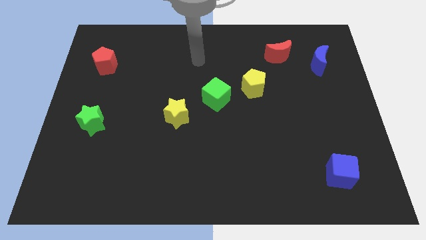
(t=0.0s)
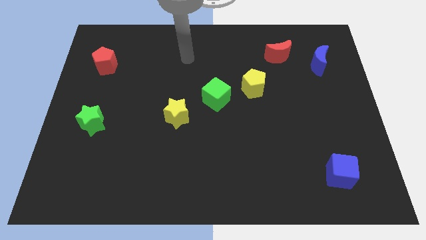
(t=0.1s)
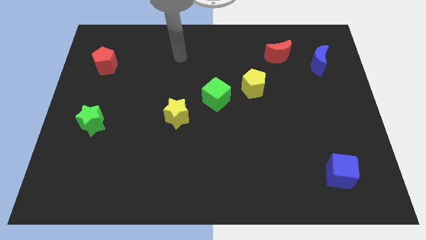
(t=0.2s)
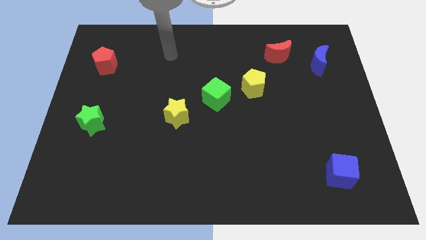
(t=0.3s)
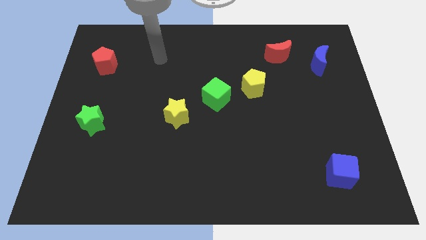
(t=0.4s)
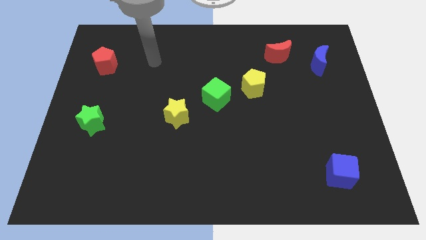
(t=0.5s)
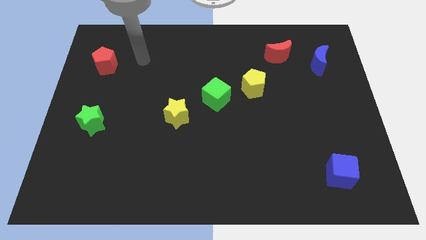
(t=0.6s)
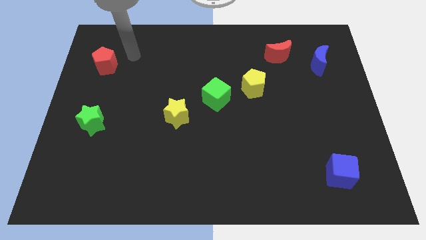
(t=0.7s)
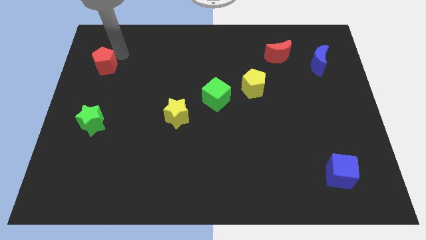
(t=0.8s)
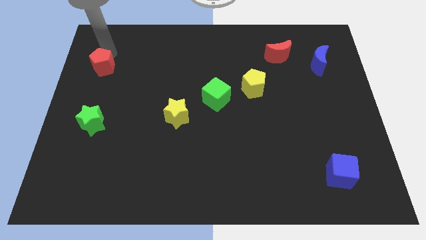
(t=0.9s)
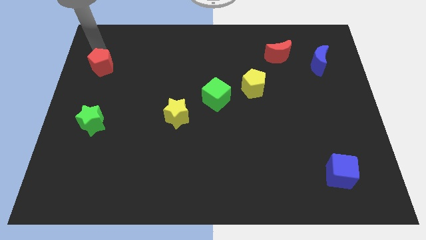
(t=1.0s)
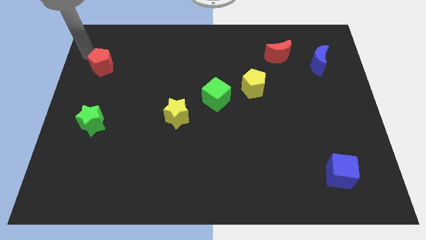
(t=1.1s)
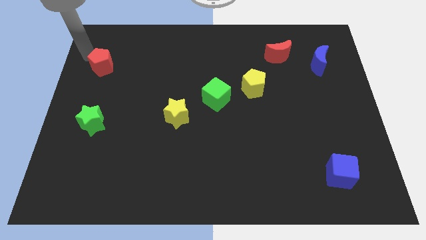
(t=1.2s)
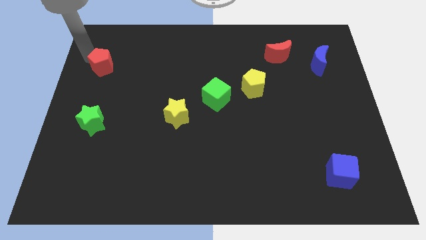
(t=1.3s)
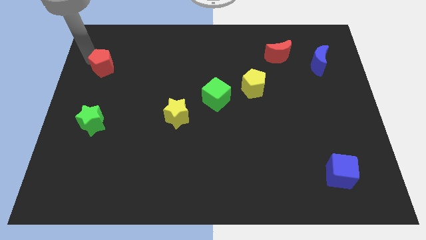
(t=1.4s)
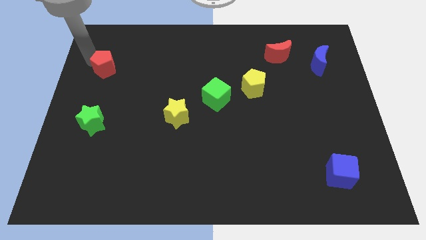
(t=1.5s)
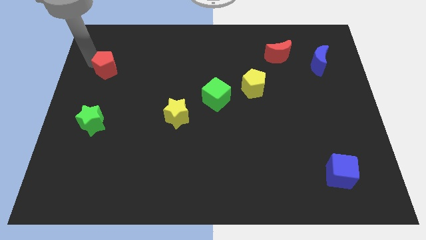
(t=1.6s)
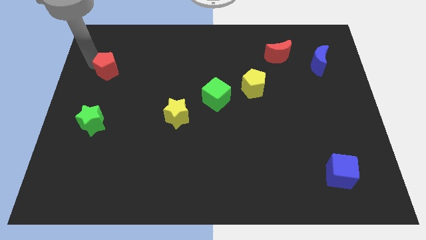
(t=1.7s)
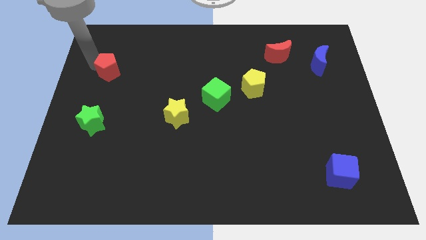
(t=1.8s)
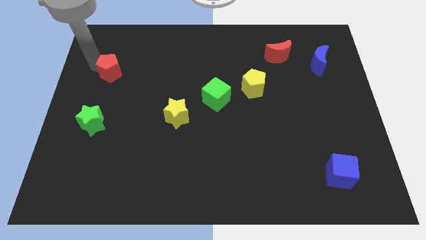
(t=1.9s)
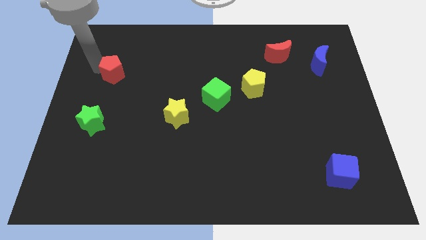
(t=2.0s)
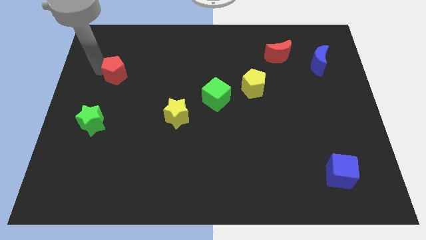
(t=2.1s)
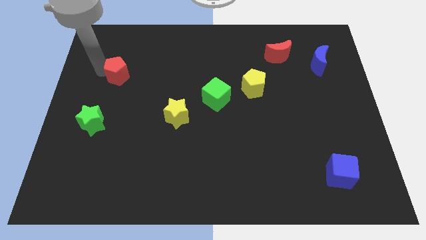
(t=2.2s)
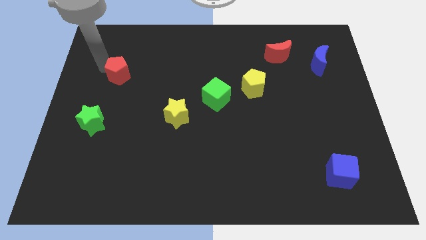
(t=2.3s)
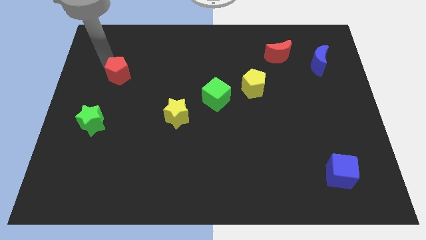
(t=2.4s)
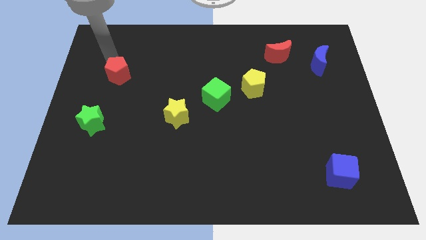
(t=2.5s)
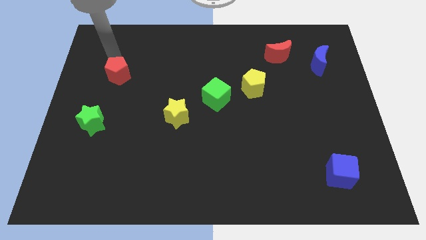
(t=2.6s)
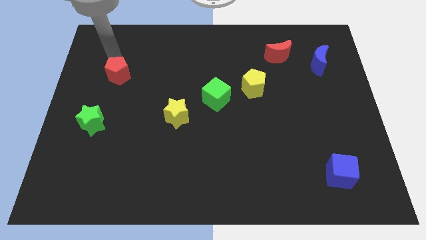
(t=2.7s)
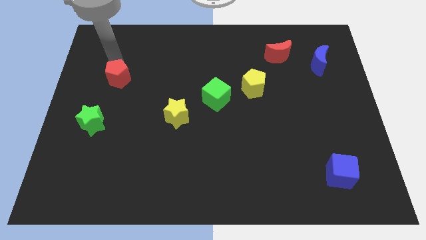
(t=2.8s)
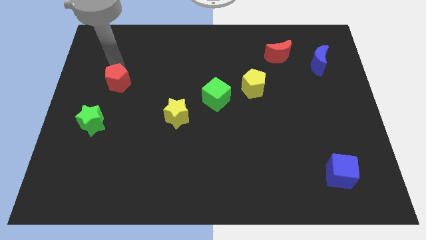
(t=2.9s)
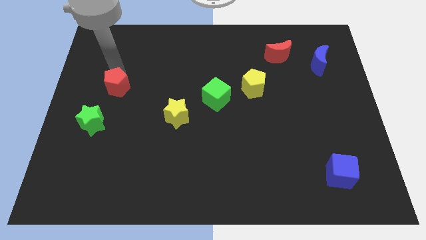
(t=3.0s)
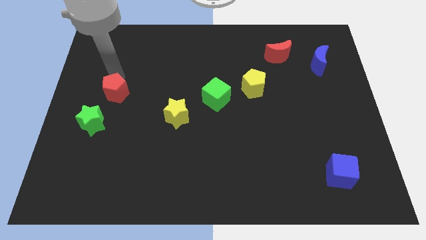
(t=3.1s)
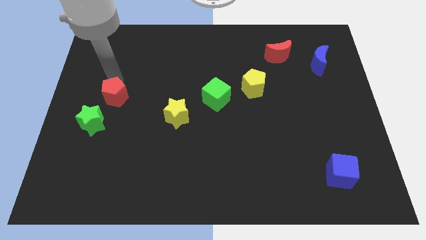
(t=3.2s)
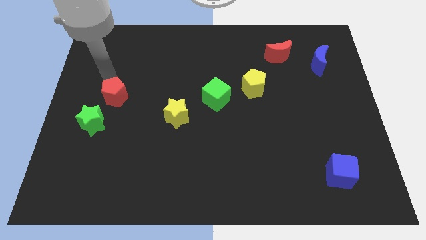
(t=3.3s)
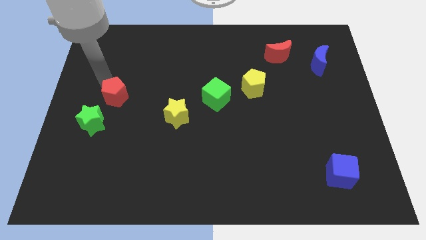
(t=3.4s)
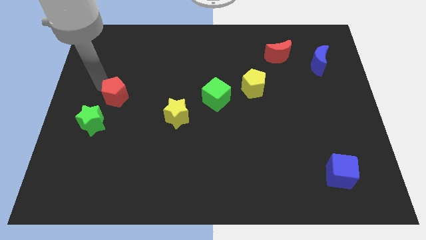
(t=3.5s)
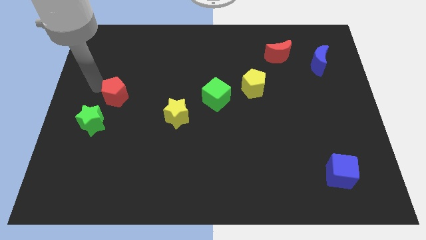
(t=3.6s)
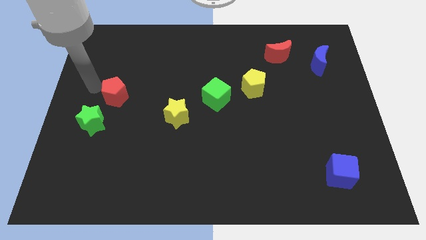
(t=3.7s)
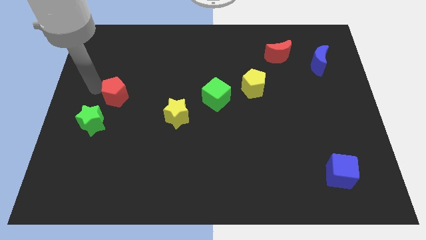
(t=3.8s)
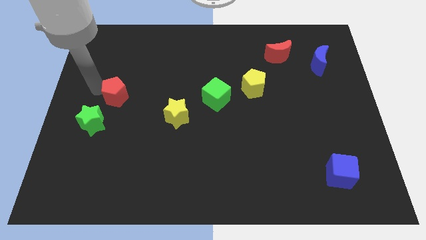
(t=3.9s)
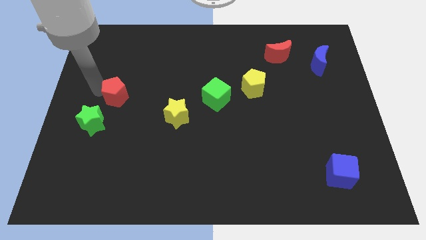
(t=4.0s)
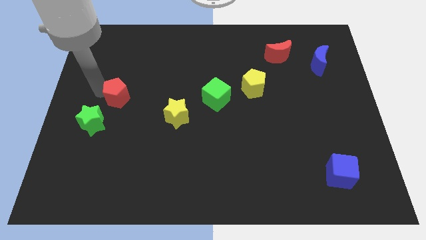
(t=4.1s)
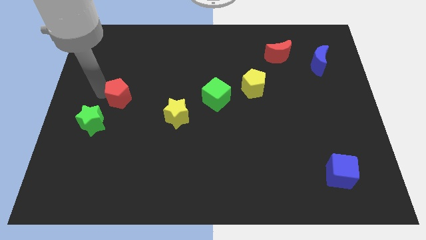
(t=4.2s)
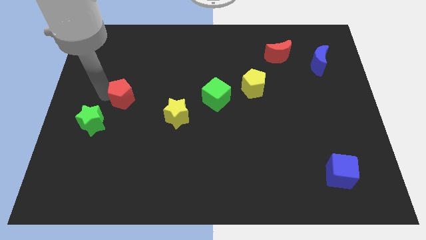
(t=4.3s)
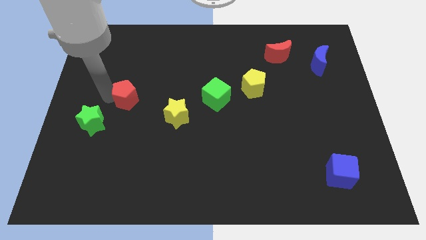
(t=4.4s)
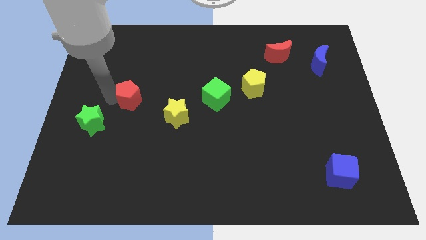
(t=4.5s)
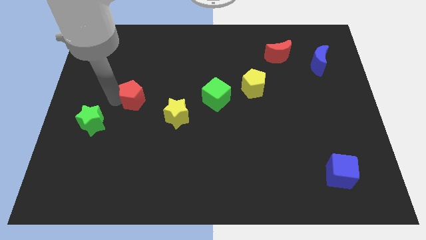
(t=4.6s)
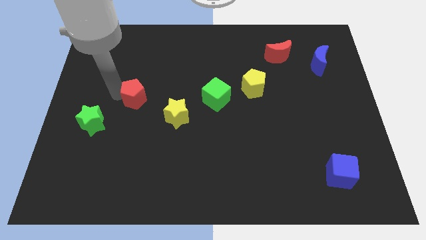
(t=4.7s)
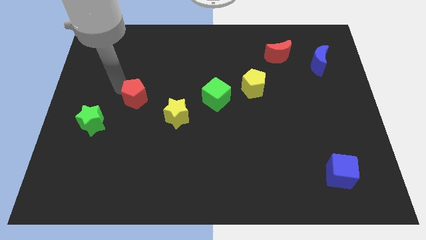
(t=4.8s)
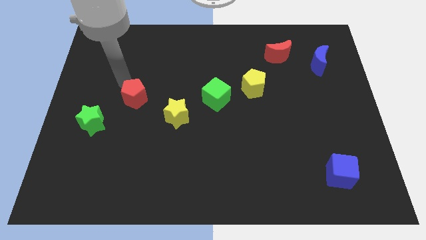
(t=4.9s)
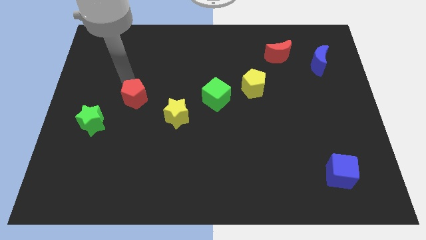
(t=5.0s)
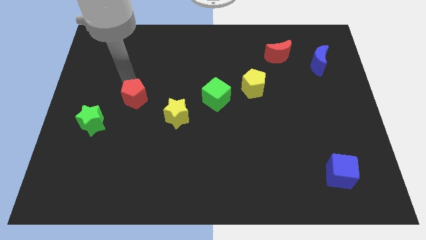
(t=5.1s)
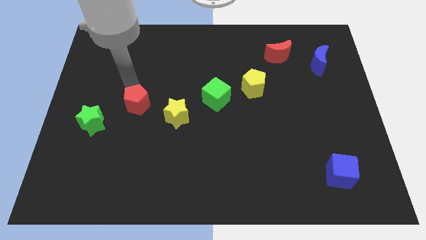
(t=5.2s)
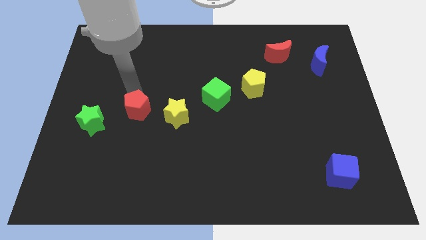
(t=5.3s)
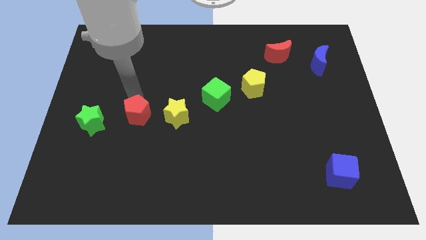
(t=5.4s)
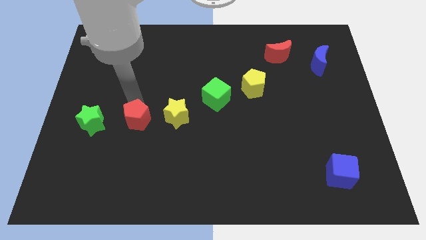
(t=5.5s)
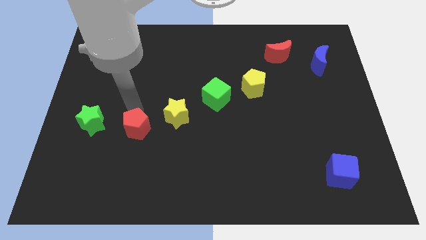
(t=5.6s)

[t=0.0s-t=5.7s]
slide the red pentagon down and to the right diagonally

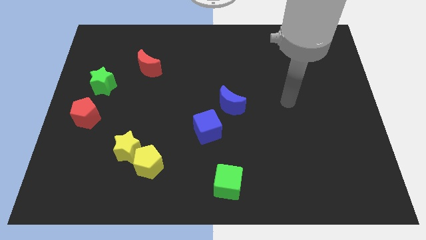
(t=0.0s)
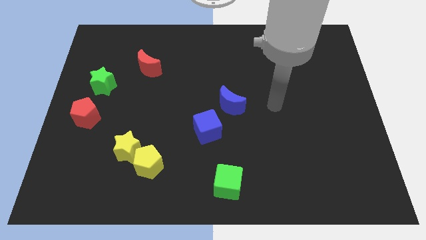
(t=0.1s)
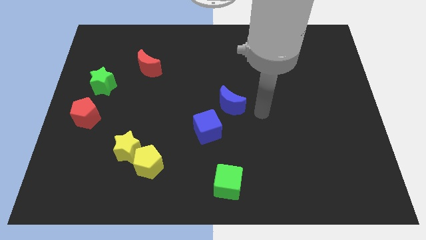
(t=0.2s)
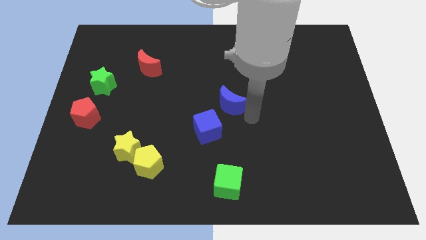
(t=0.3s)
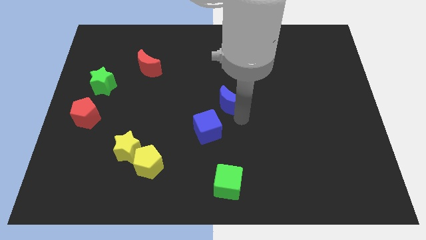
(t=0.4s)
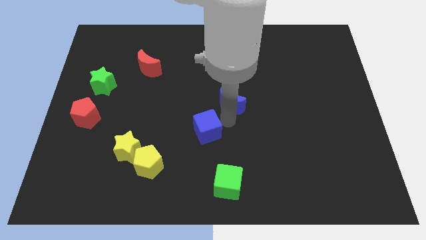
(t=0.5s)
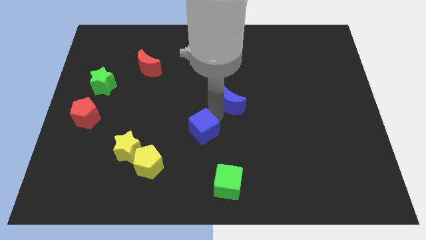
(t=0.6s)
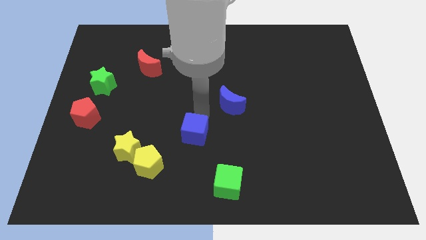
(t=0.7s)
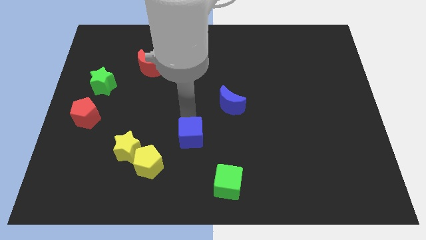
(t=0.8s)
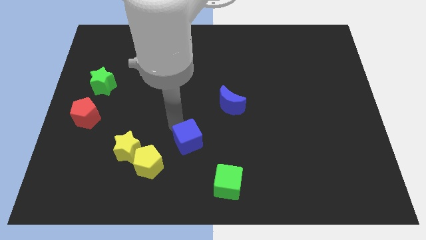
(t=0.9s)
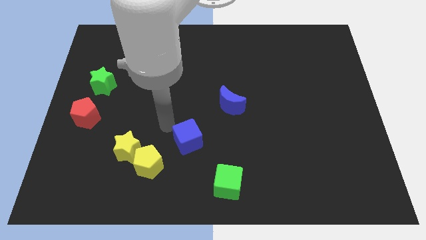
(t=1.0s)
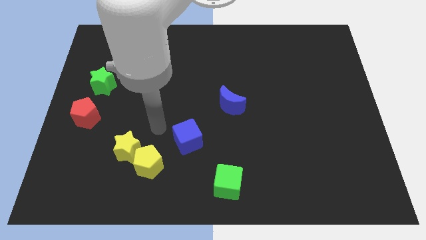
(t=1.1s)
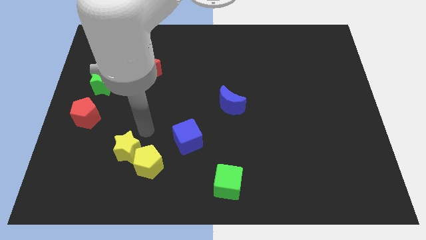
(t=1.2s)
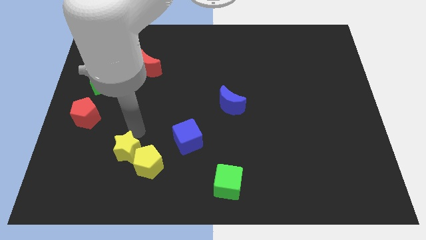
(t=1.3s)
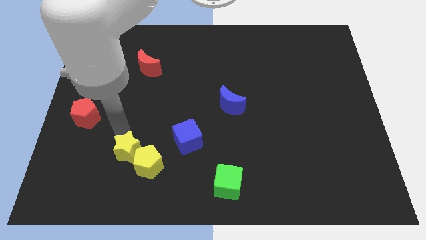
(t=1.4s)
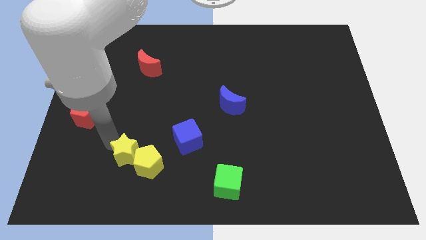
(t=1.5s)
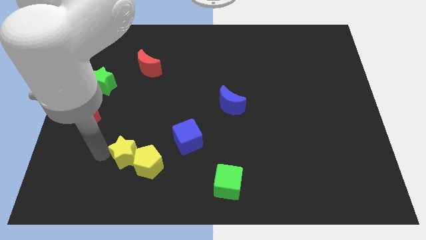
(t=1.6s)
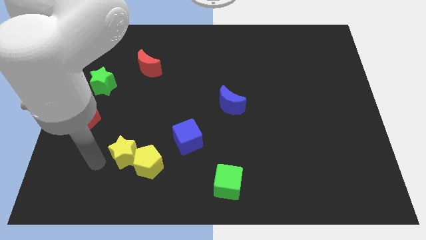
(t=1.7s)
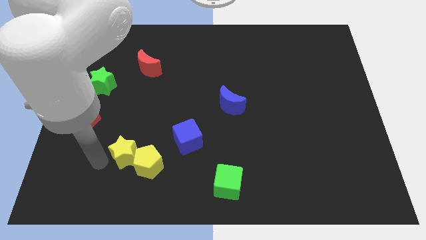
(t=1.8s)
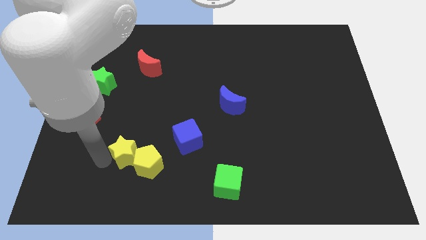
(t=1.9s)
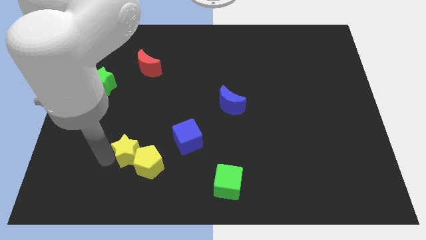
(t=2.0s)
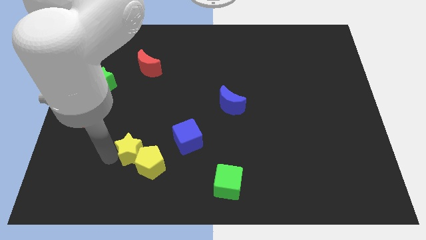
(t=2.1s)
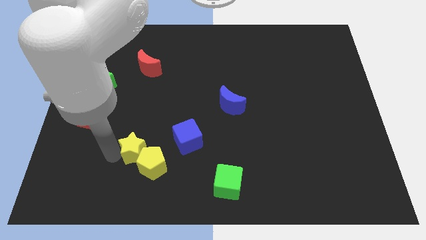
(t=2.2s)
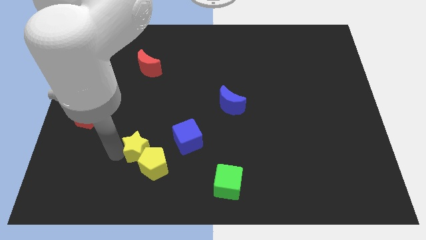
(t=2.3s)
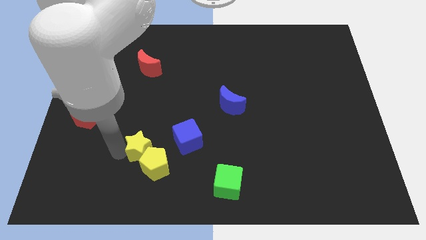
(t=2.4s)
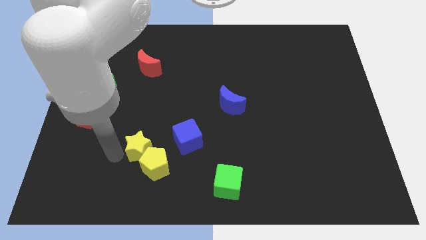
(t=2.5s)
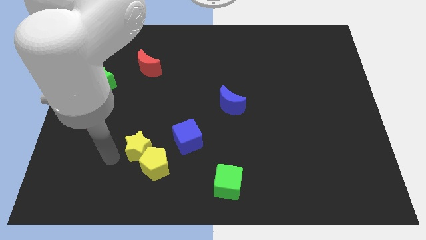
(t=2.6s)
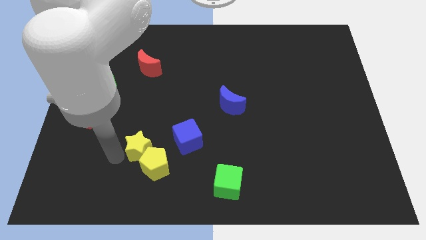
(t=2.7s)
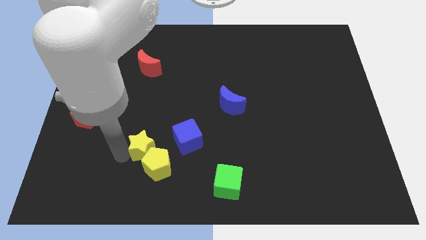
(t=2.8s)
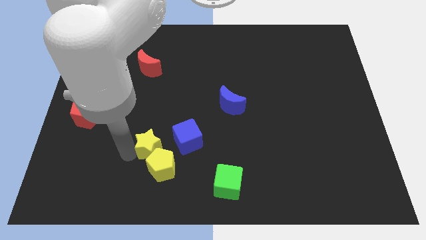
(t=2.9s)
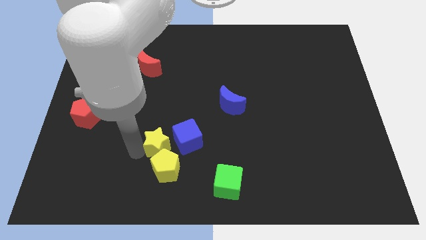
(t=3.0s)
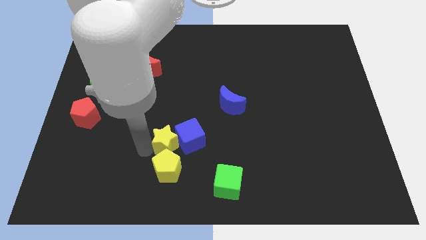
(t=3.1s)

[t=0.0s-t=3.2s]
push the yellow star a bit right
